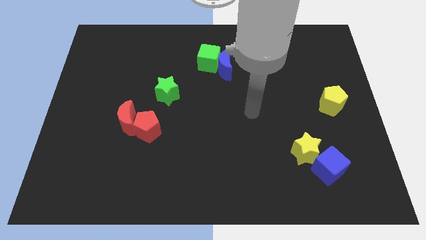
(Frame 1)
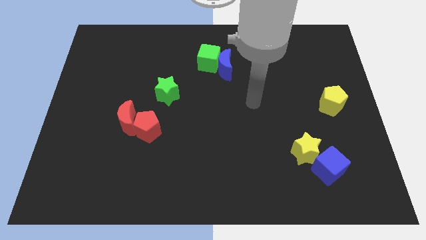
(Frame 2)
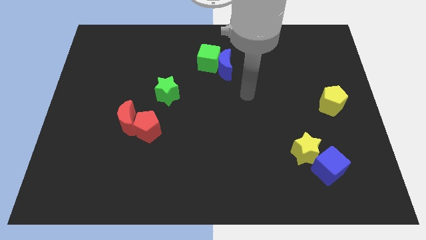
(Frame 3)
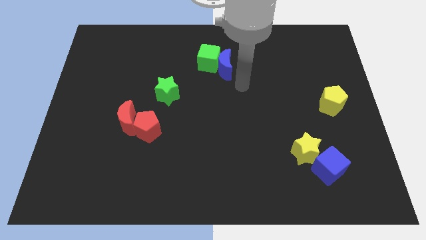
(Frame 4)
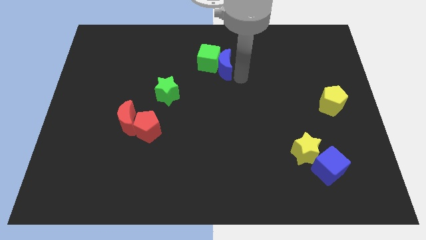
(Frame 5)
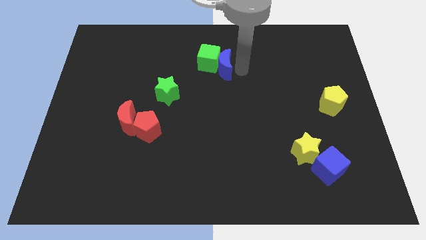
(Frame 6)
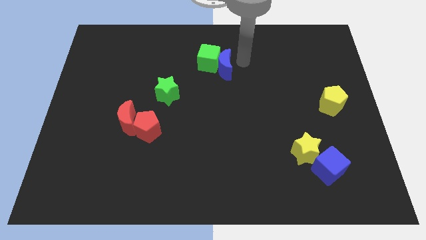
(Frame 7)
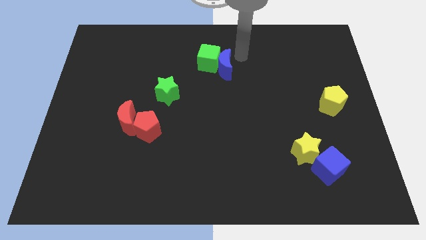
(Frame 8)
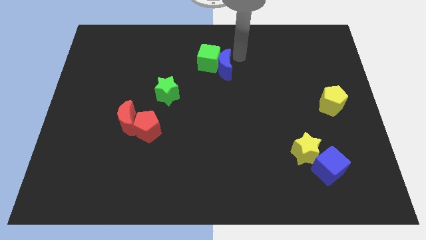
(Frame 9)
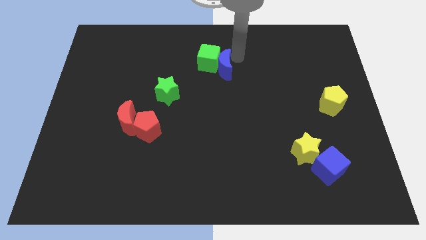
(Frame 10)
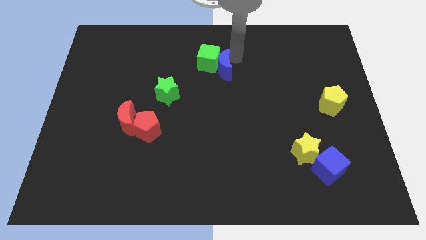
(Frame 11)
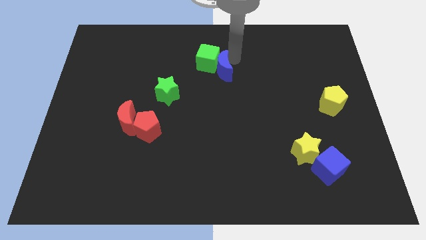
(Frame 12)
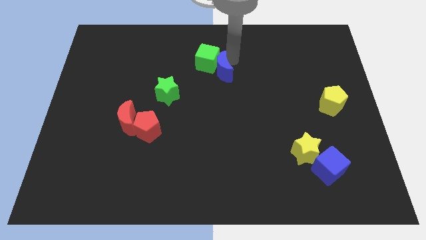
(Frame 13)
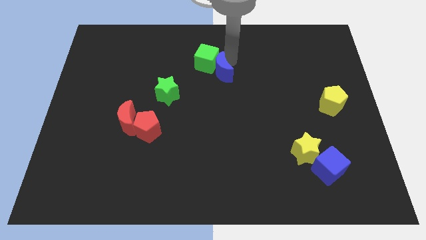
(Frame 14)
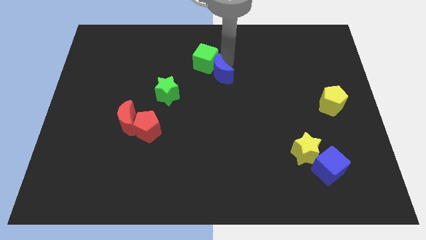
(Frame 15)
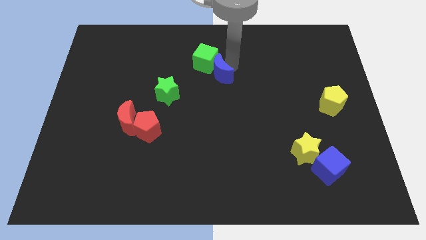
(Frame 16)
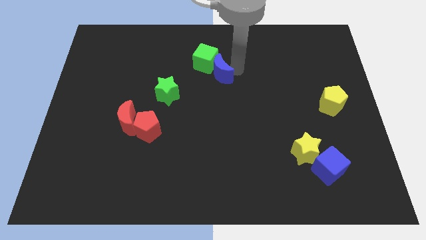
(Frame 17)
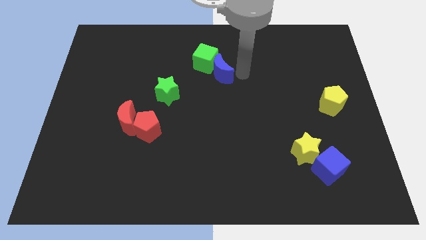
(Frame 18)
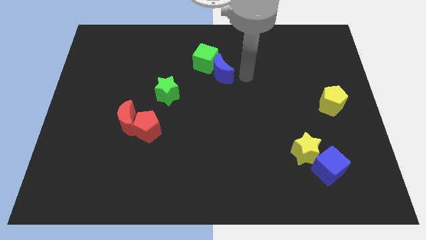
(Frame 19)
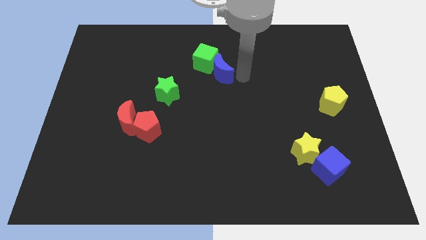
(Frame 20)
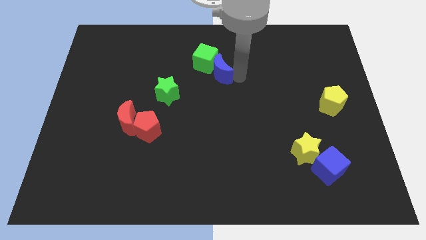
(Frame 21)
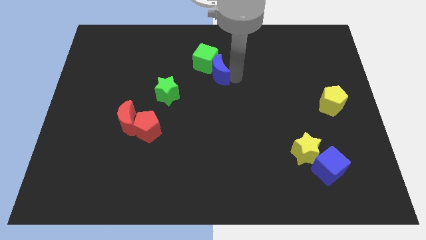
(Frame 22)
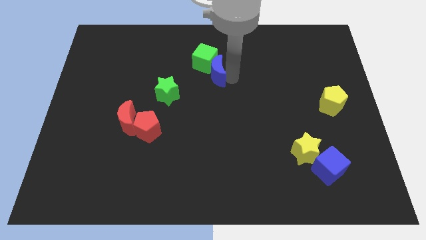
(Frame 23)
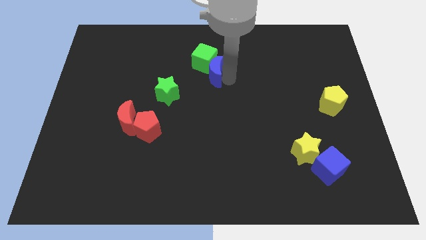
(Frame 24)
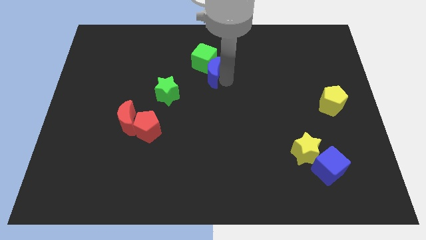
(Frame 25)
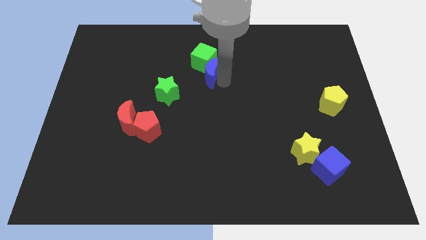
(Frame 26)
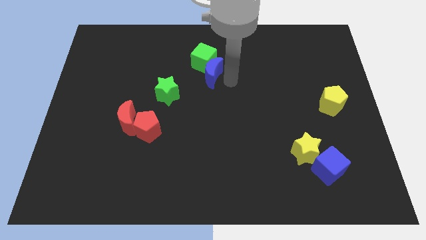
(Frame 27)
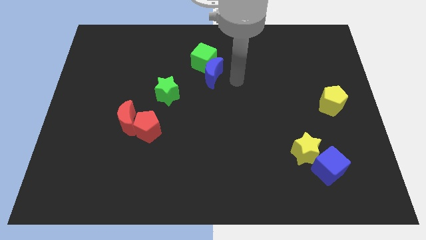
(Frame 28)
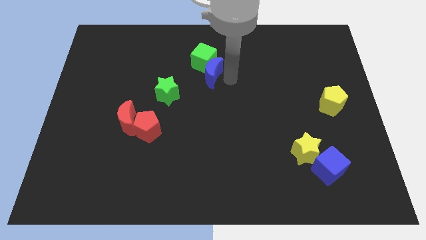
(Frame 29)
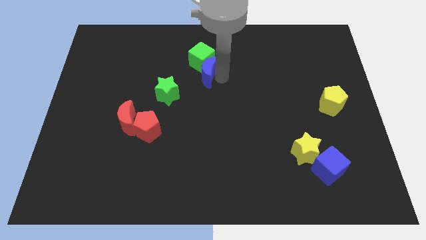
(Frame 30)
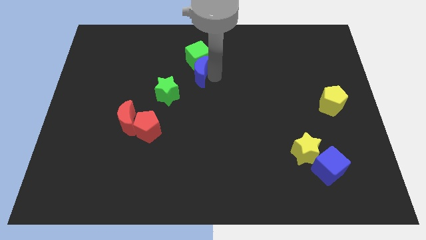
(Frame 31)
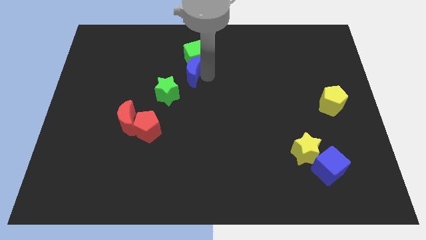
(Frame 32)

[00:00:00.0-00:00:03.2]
slightly push the blue moon to the left

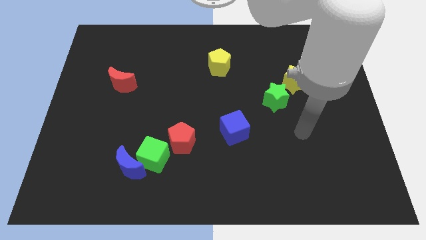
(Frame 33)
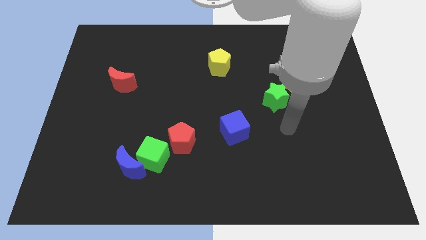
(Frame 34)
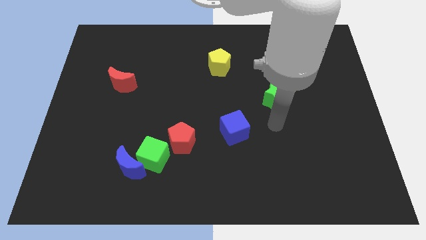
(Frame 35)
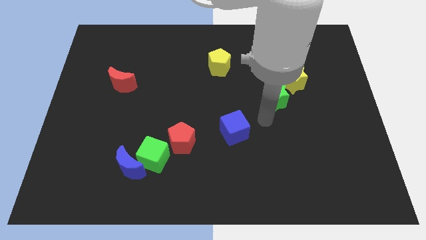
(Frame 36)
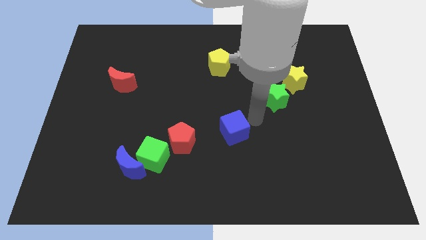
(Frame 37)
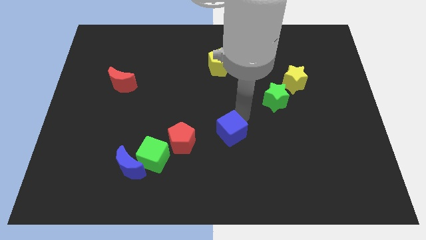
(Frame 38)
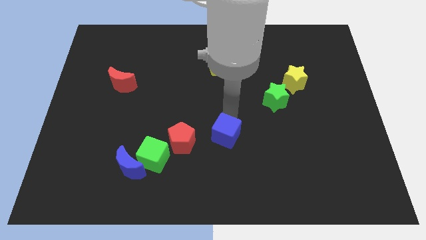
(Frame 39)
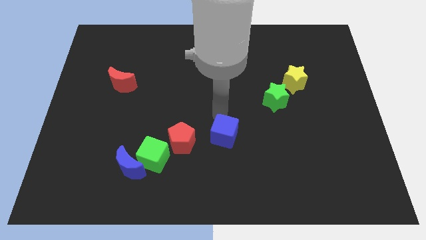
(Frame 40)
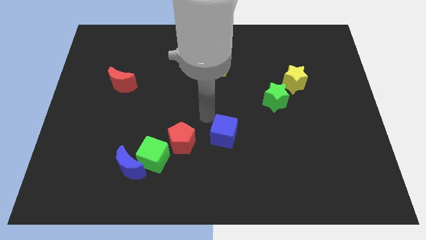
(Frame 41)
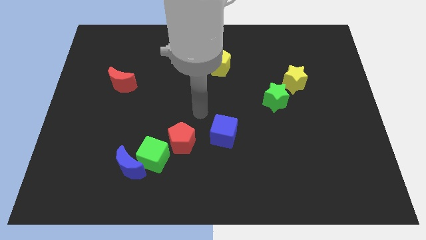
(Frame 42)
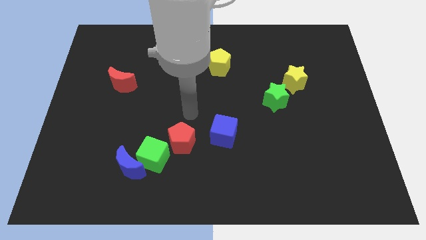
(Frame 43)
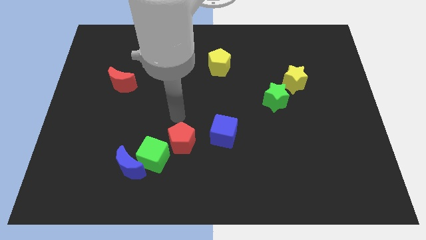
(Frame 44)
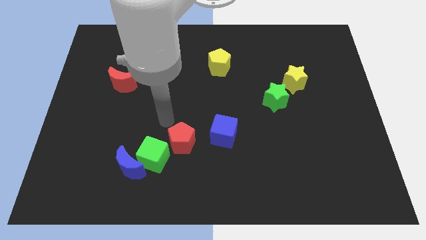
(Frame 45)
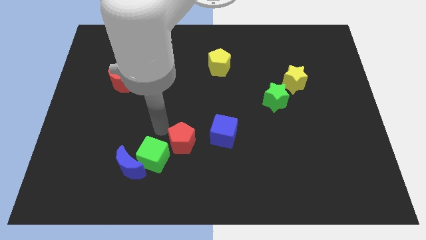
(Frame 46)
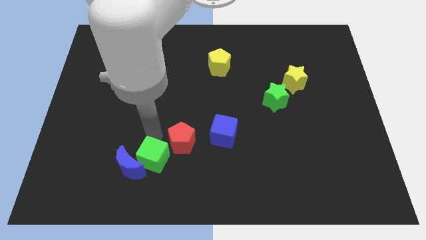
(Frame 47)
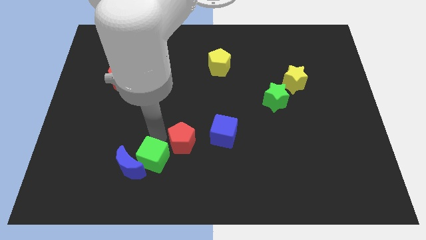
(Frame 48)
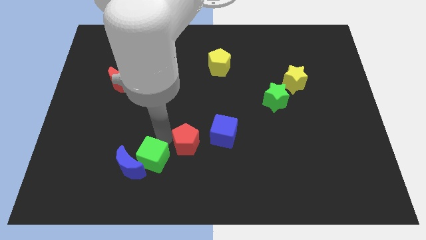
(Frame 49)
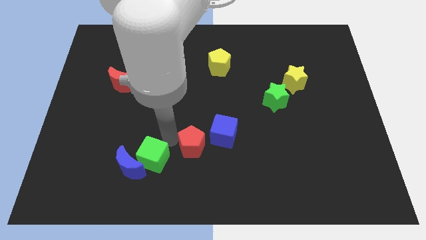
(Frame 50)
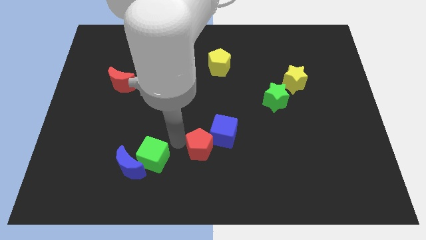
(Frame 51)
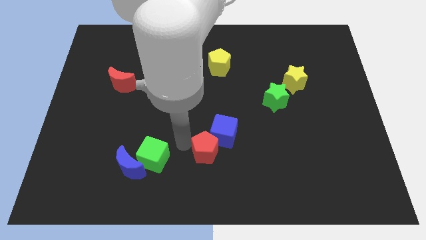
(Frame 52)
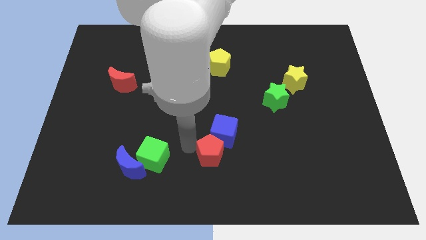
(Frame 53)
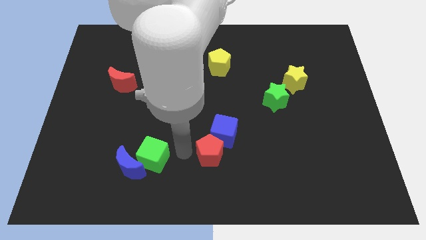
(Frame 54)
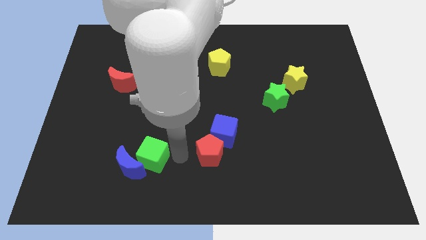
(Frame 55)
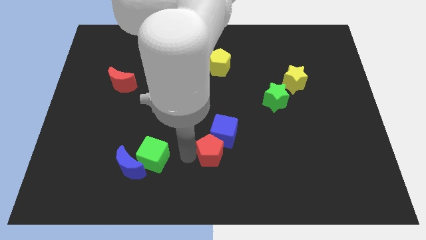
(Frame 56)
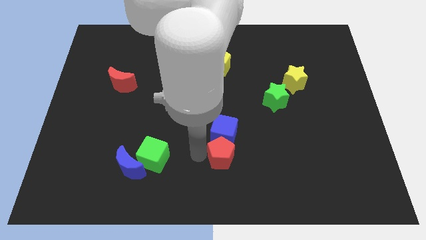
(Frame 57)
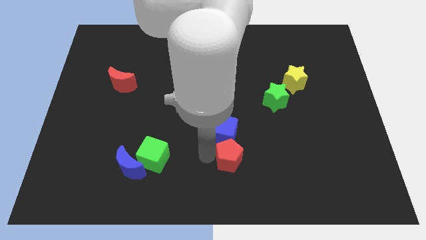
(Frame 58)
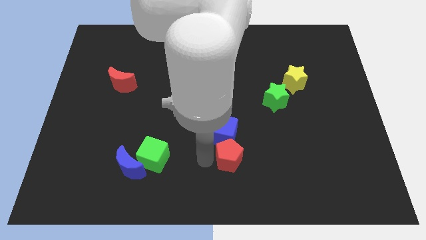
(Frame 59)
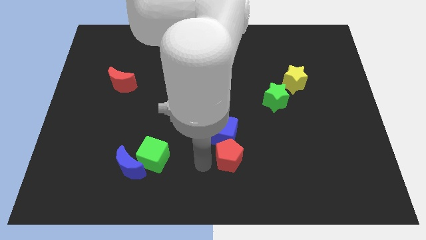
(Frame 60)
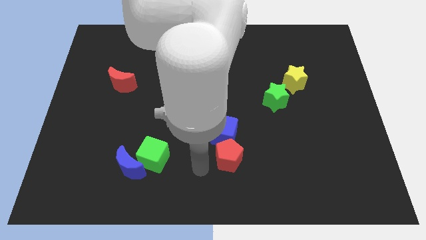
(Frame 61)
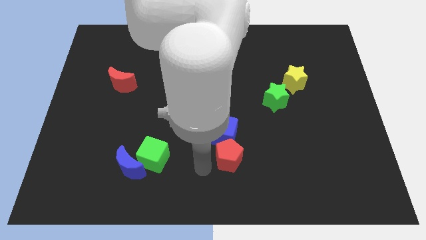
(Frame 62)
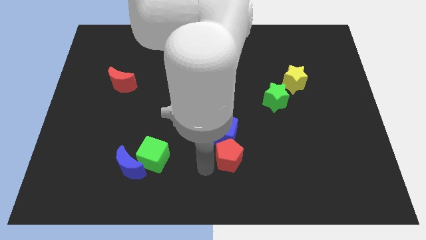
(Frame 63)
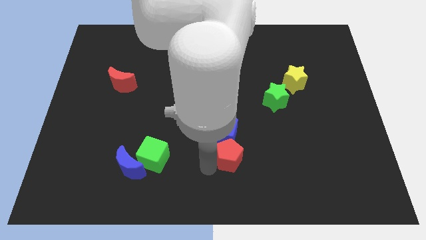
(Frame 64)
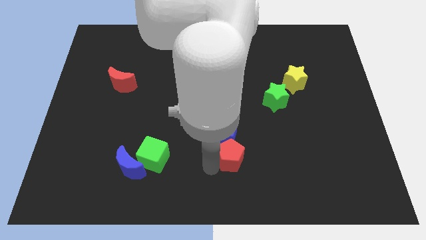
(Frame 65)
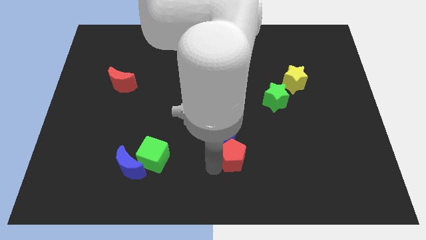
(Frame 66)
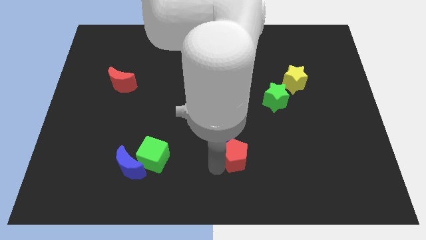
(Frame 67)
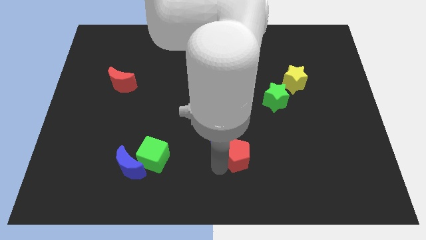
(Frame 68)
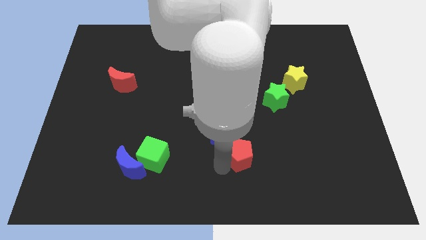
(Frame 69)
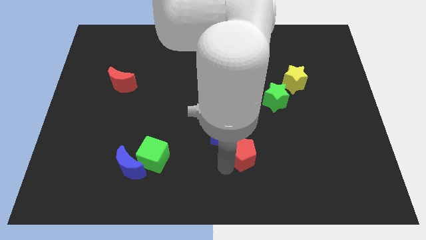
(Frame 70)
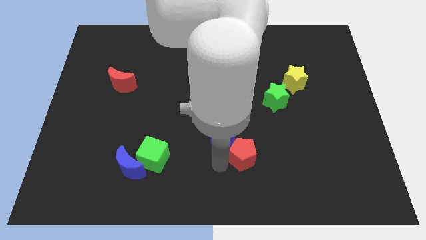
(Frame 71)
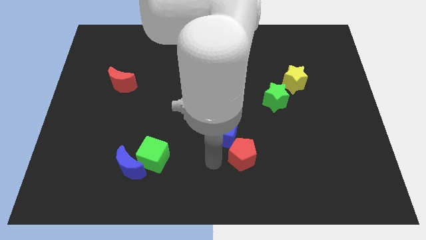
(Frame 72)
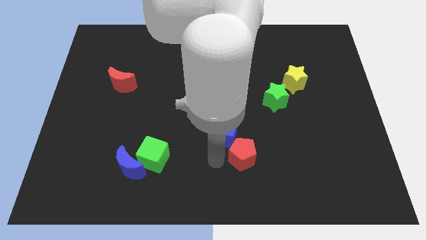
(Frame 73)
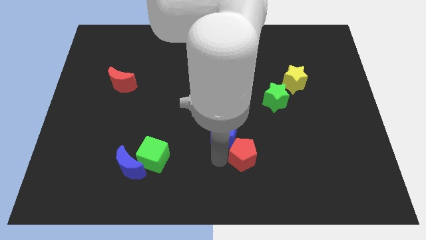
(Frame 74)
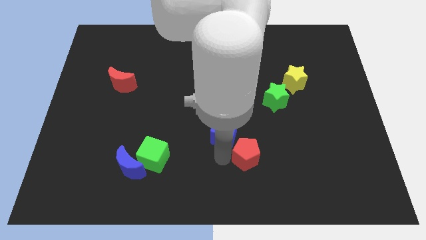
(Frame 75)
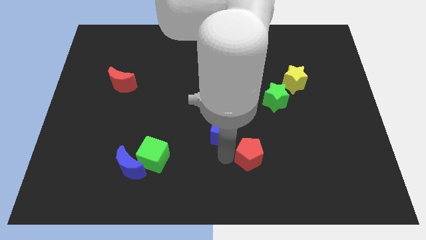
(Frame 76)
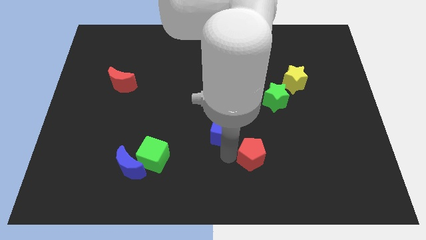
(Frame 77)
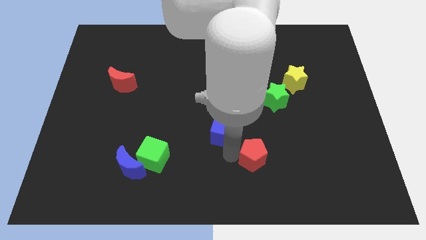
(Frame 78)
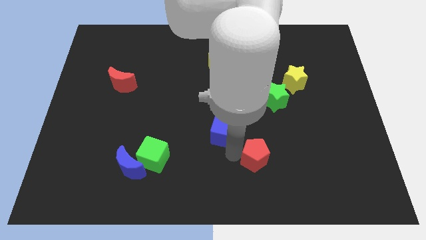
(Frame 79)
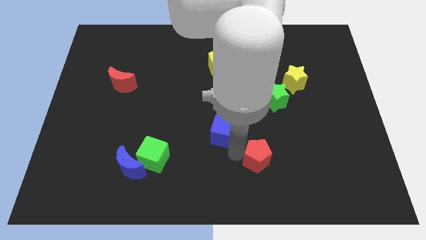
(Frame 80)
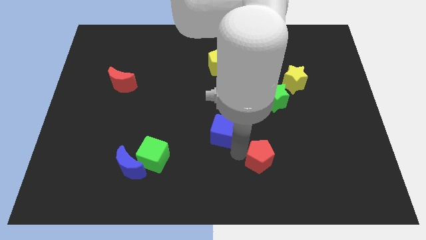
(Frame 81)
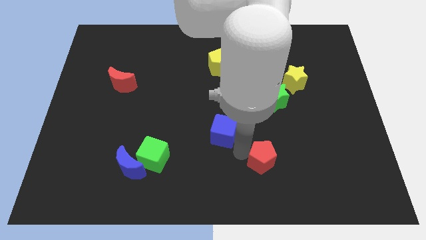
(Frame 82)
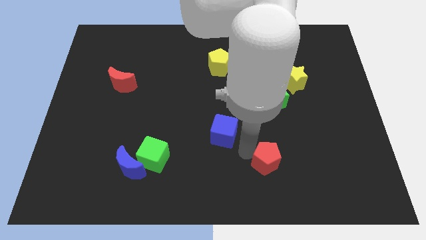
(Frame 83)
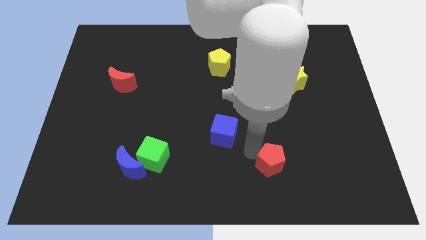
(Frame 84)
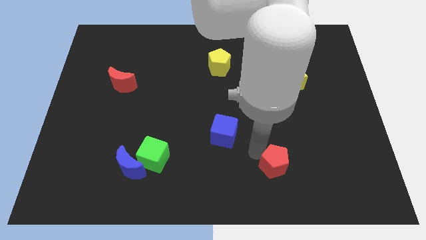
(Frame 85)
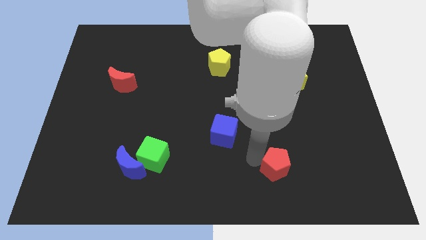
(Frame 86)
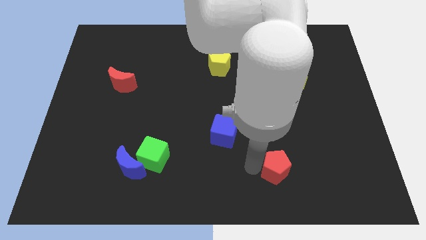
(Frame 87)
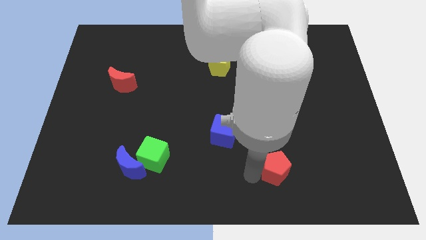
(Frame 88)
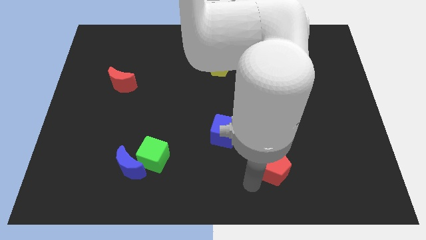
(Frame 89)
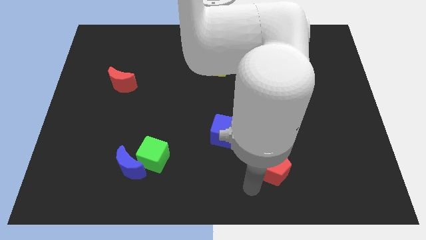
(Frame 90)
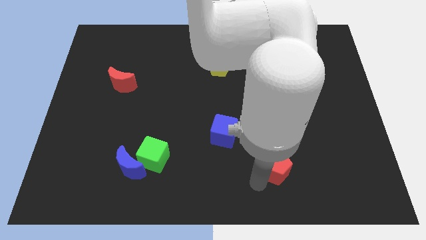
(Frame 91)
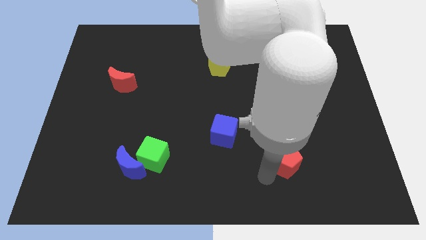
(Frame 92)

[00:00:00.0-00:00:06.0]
push the red pentagon to the right
